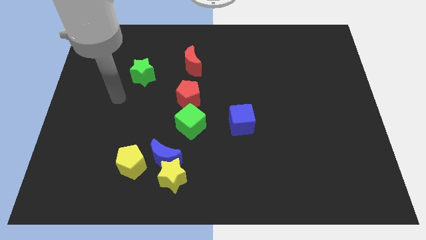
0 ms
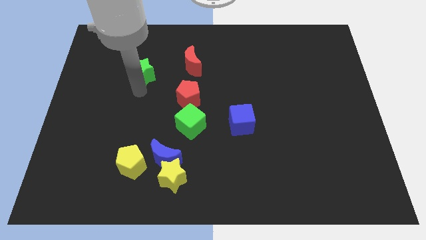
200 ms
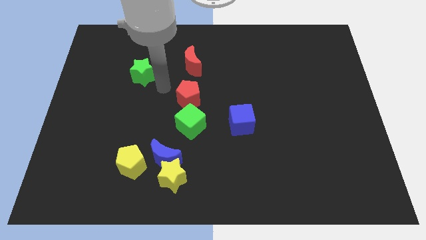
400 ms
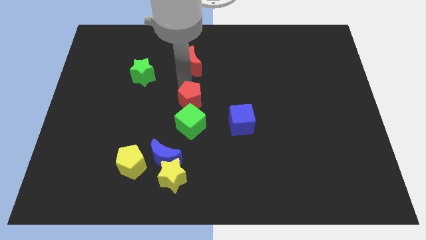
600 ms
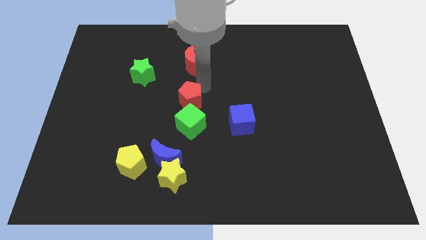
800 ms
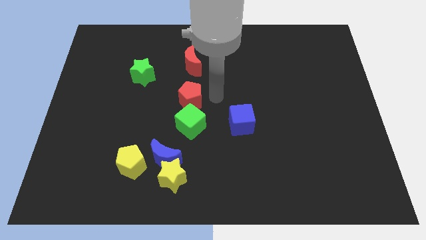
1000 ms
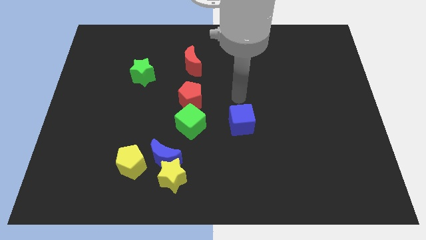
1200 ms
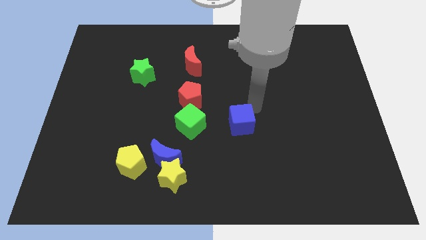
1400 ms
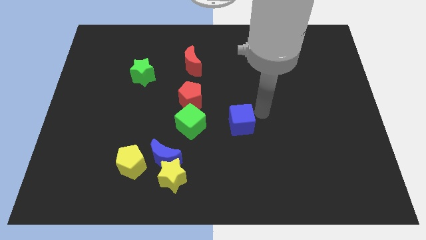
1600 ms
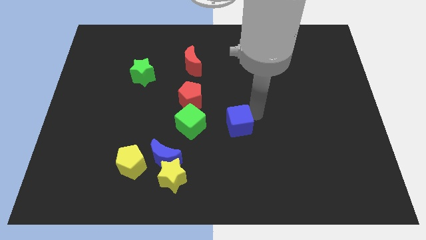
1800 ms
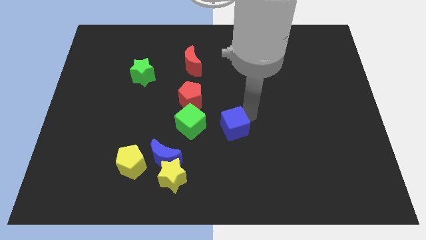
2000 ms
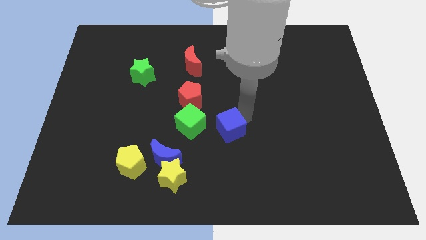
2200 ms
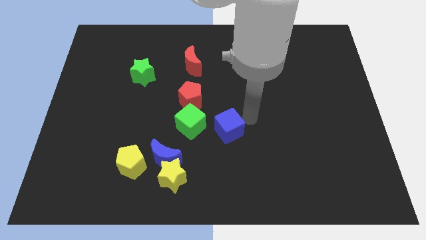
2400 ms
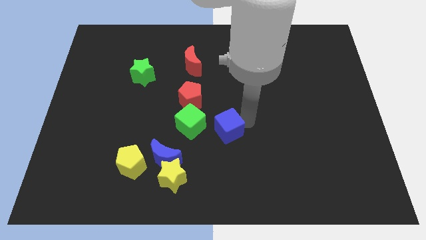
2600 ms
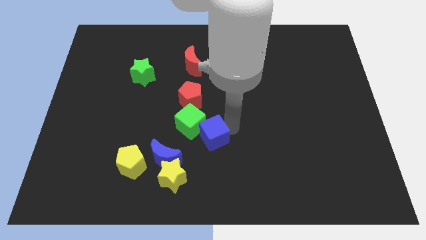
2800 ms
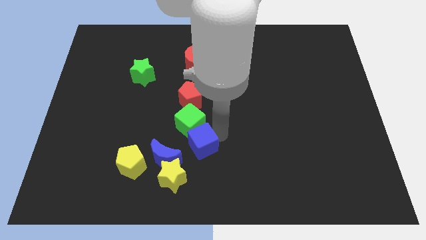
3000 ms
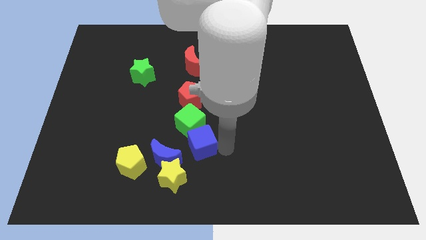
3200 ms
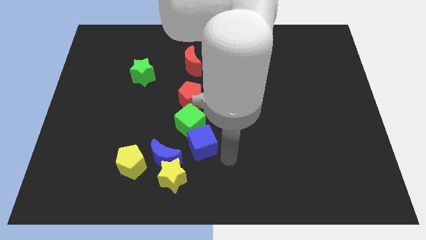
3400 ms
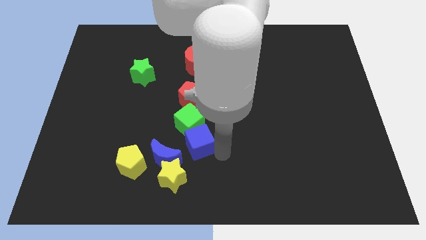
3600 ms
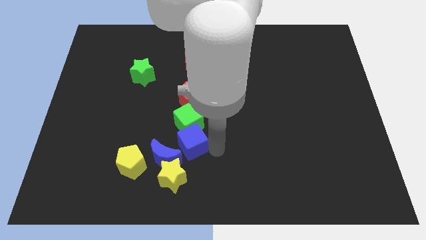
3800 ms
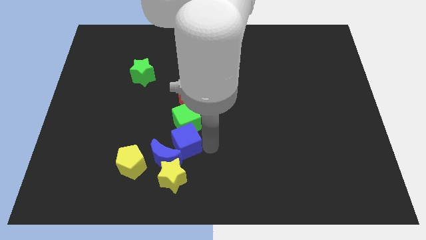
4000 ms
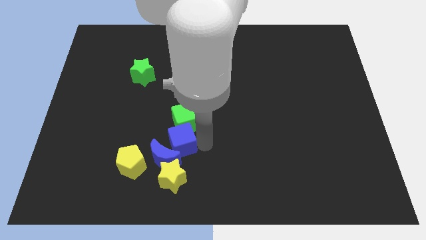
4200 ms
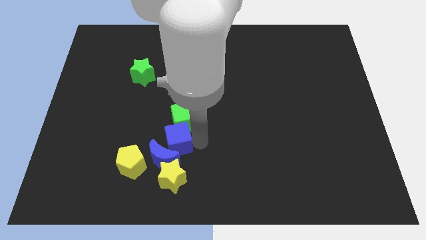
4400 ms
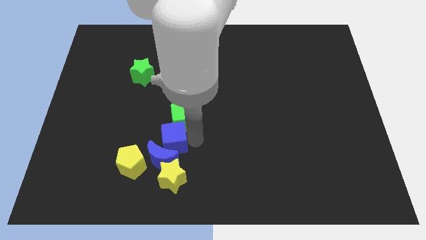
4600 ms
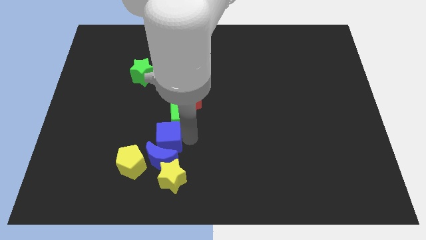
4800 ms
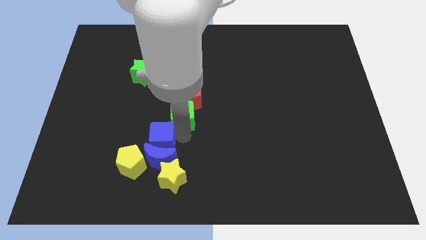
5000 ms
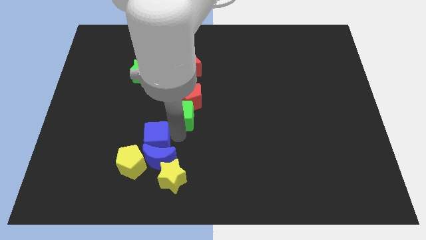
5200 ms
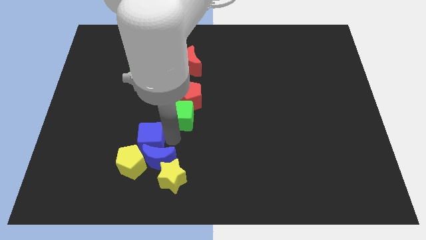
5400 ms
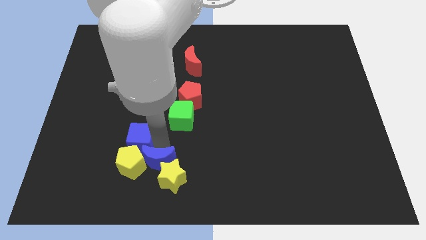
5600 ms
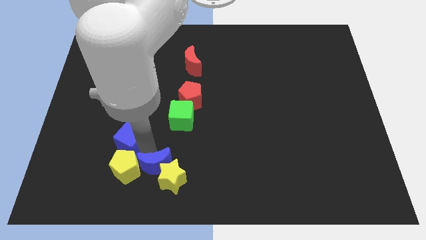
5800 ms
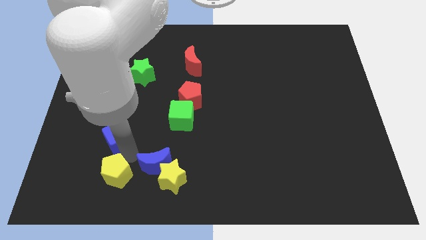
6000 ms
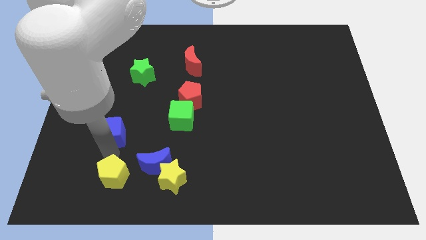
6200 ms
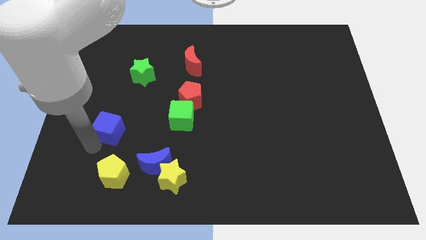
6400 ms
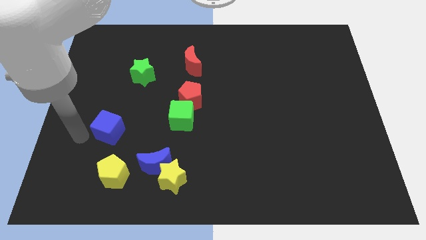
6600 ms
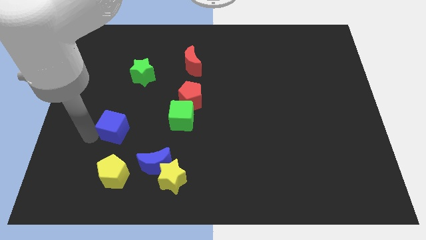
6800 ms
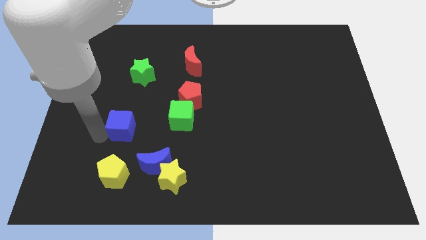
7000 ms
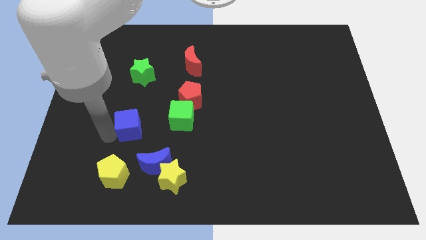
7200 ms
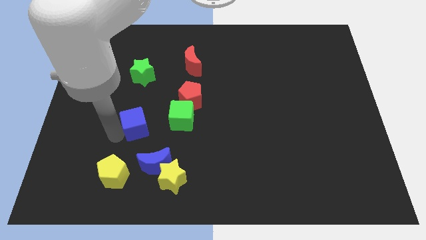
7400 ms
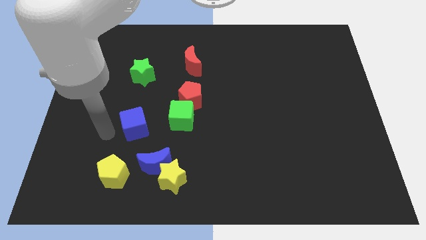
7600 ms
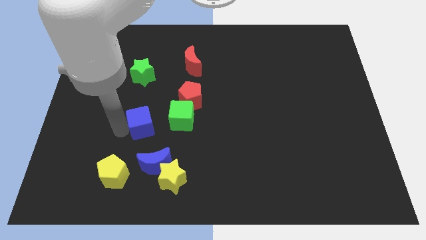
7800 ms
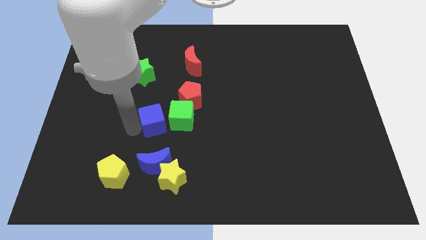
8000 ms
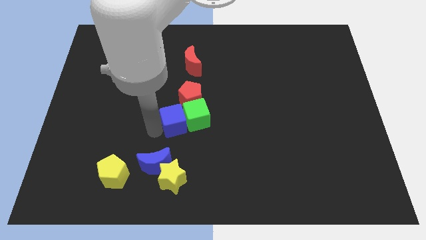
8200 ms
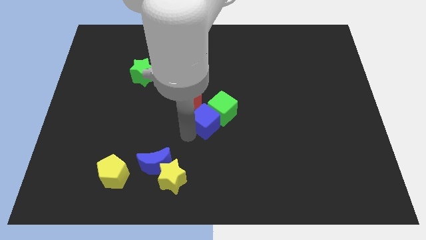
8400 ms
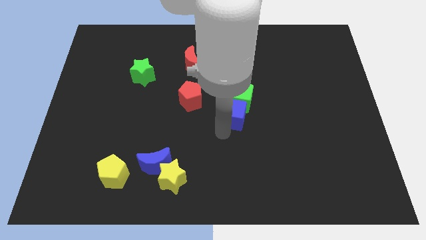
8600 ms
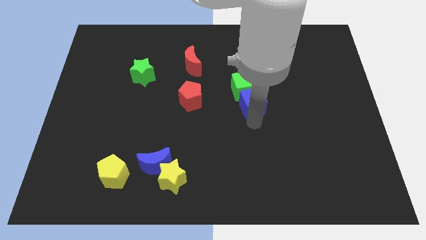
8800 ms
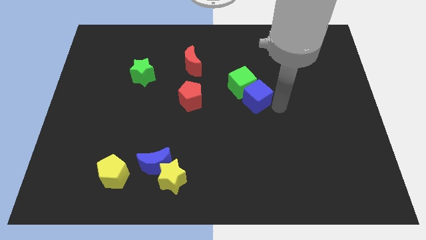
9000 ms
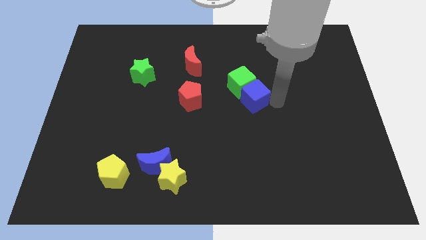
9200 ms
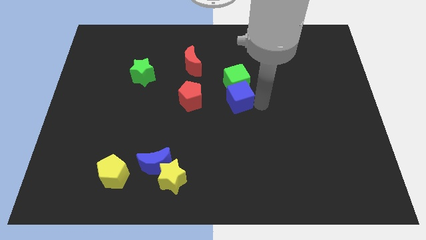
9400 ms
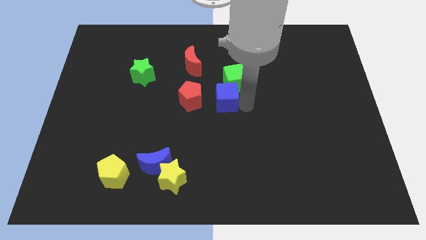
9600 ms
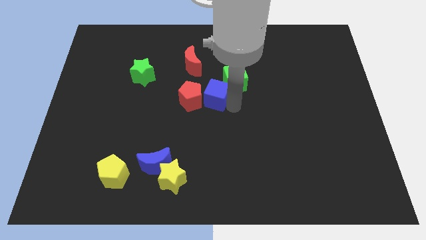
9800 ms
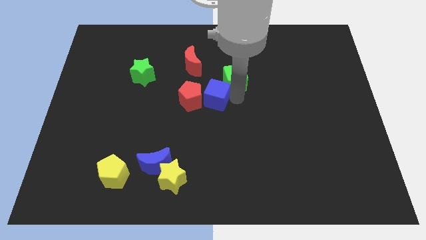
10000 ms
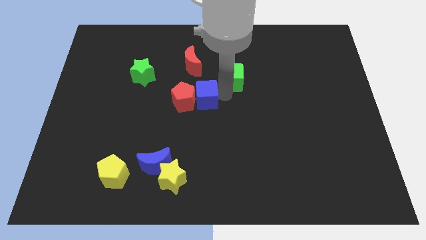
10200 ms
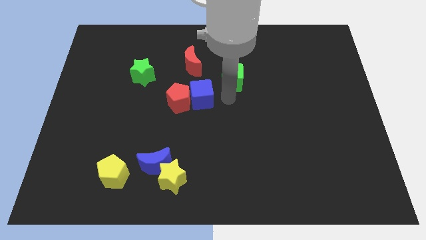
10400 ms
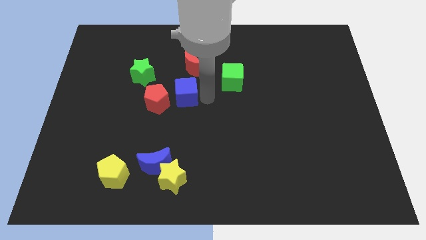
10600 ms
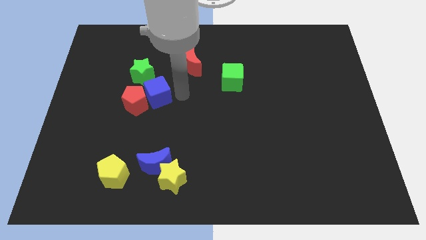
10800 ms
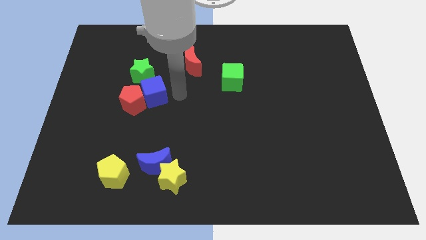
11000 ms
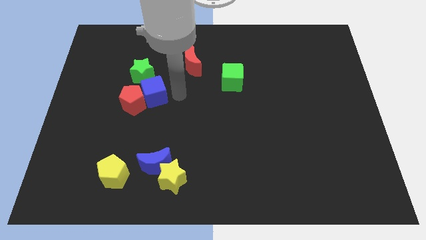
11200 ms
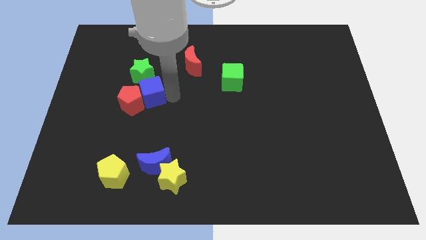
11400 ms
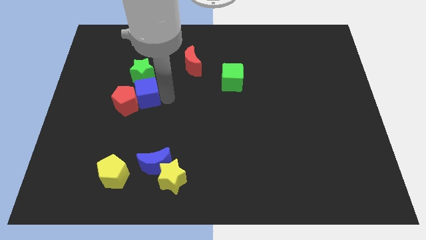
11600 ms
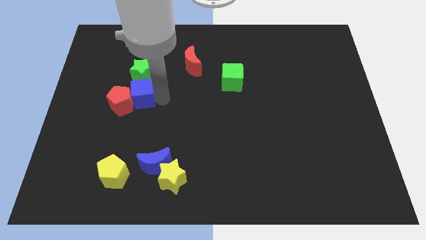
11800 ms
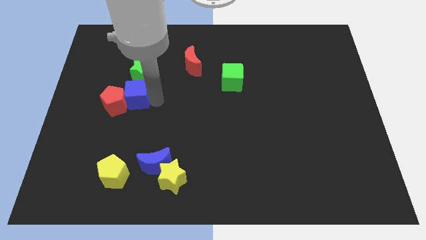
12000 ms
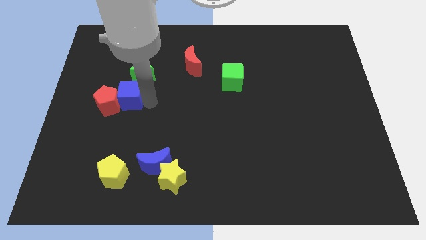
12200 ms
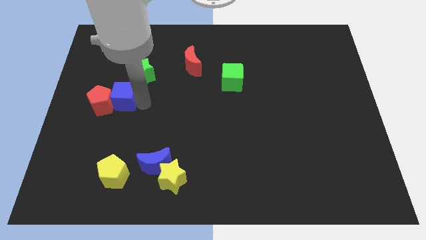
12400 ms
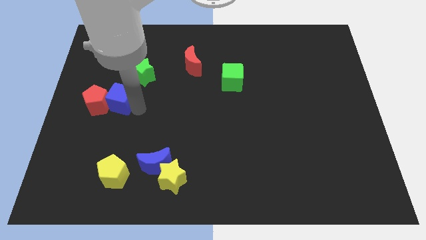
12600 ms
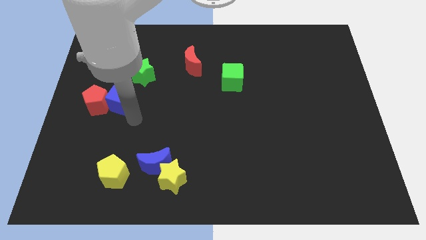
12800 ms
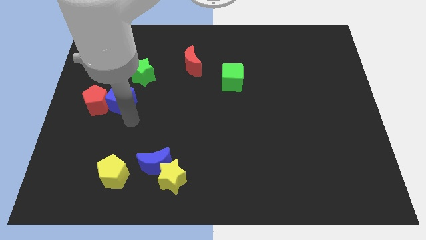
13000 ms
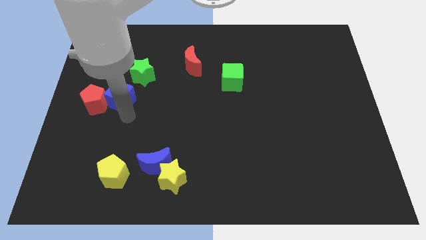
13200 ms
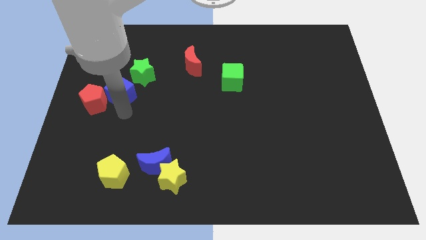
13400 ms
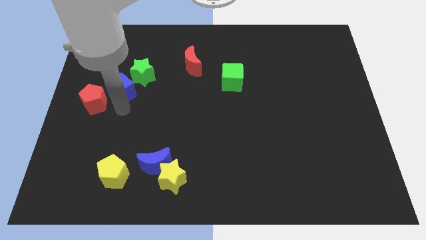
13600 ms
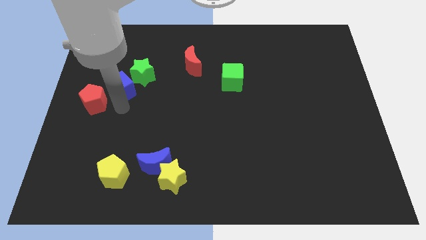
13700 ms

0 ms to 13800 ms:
put the blue cube left of the green star
